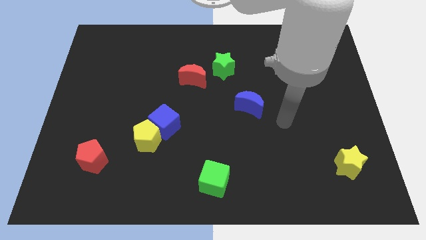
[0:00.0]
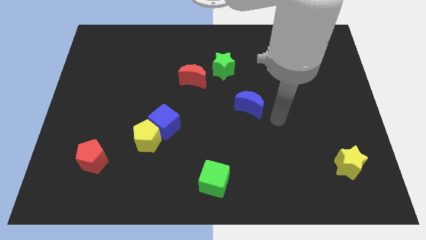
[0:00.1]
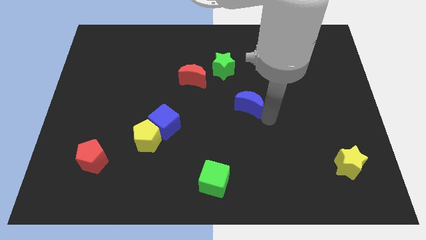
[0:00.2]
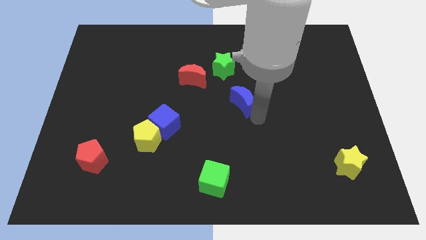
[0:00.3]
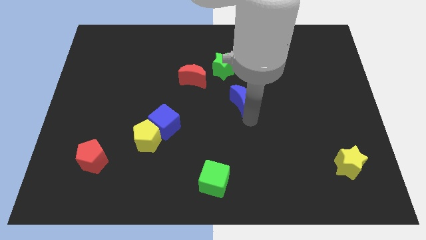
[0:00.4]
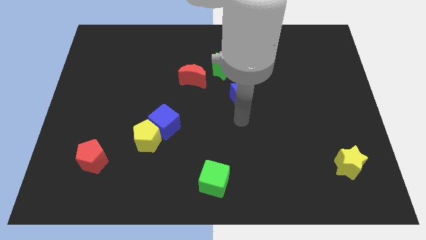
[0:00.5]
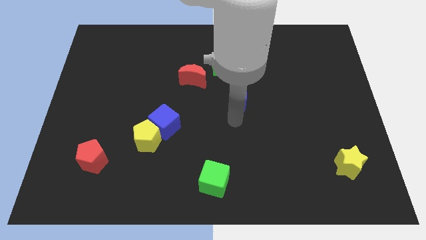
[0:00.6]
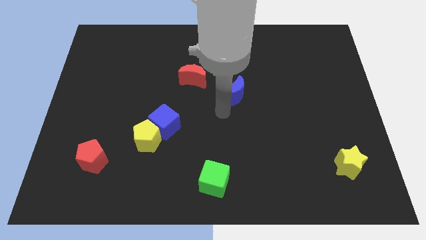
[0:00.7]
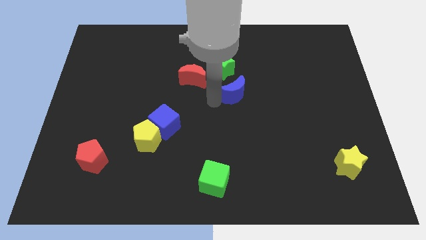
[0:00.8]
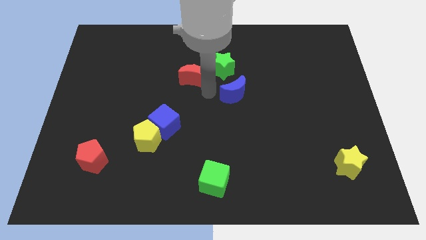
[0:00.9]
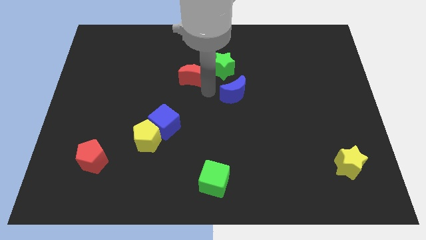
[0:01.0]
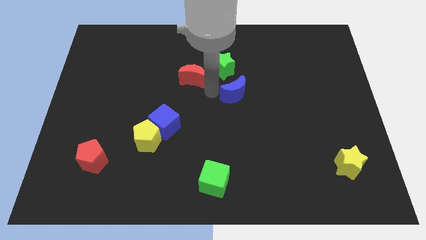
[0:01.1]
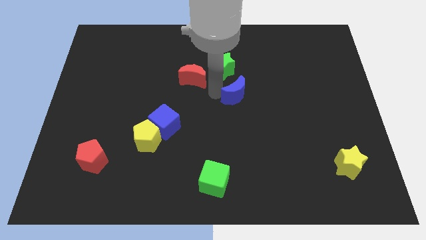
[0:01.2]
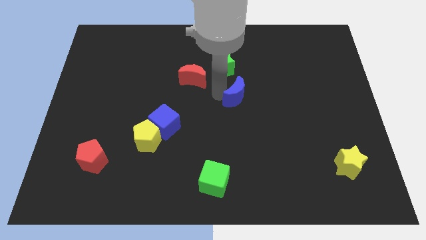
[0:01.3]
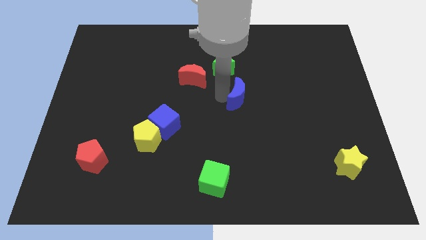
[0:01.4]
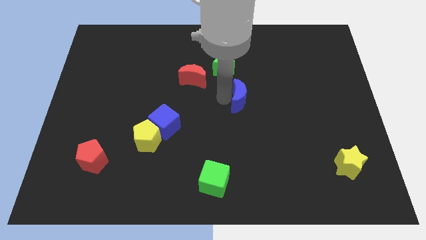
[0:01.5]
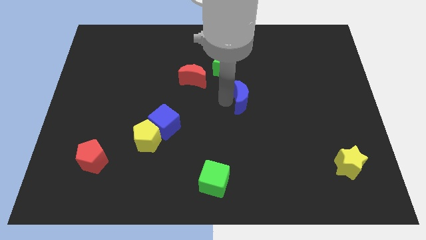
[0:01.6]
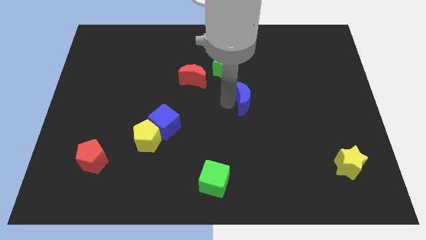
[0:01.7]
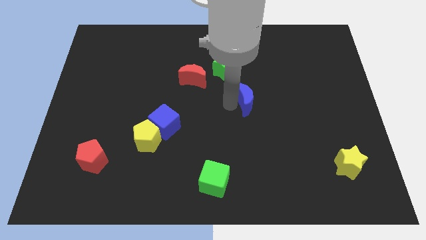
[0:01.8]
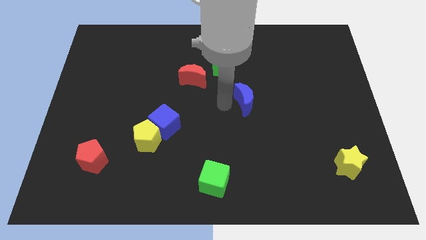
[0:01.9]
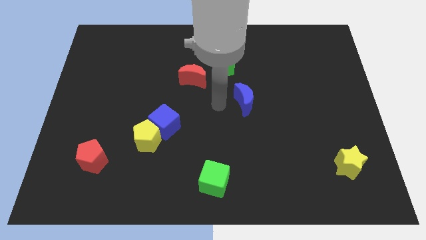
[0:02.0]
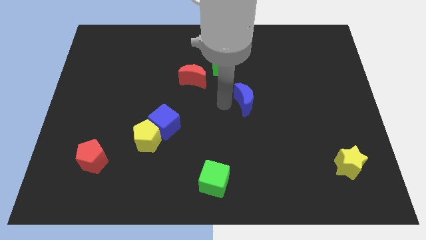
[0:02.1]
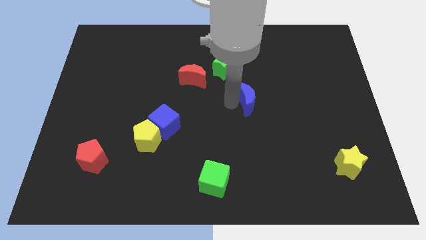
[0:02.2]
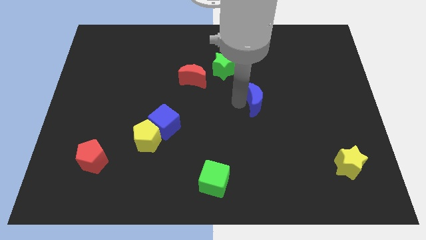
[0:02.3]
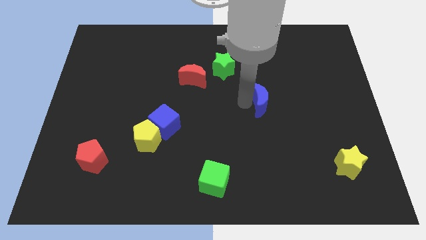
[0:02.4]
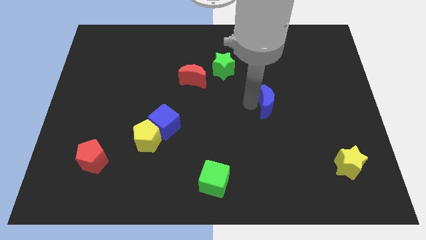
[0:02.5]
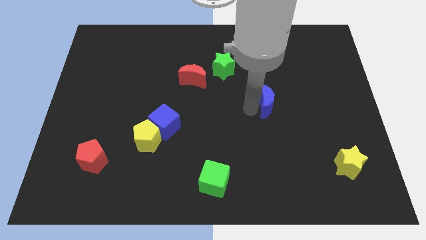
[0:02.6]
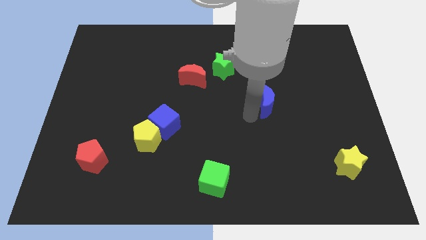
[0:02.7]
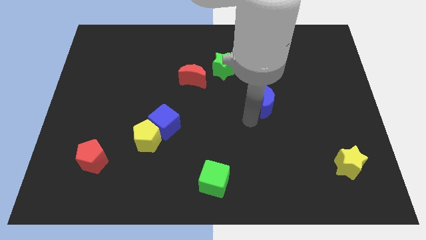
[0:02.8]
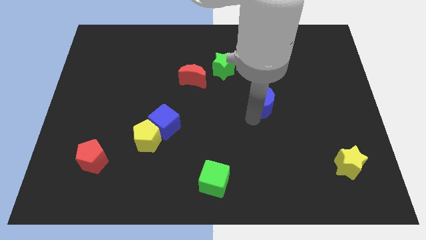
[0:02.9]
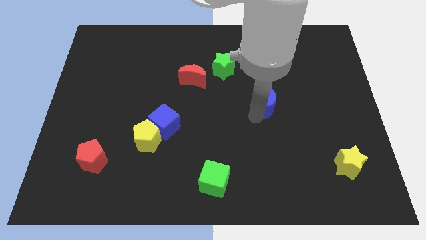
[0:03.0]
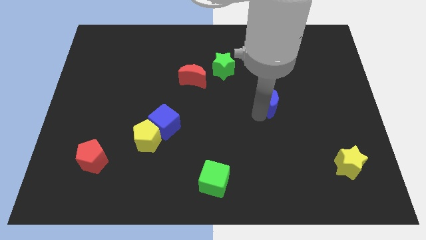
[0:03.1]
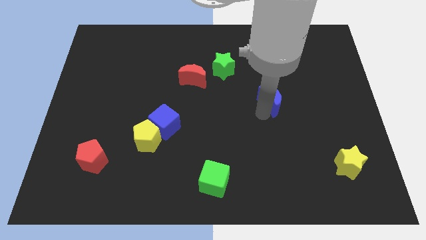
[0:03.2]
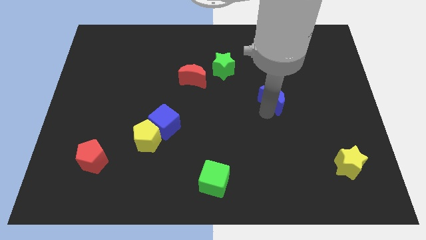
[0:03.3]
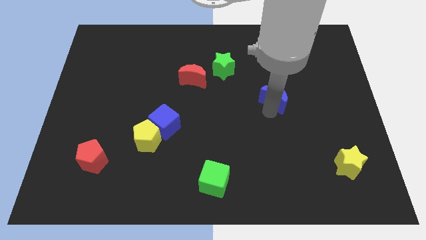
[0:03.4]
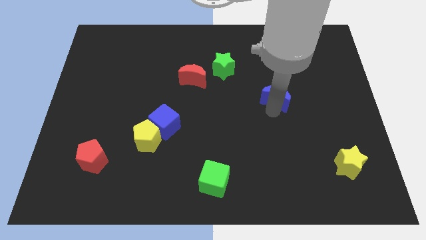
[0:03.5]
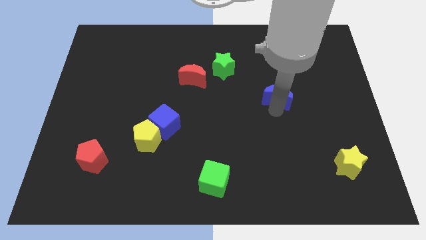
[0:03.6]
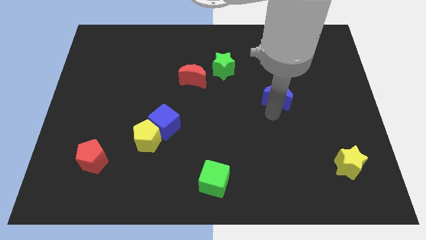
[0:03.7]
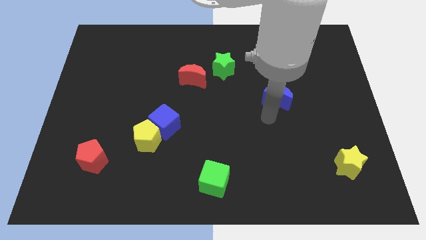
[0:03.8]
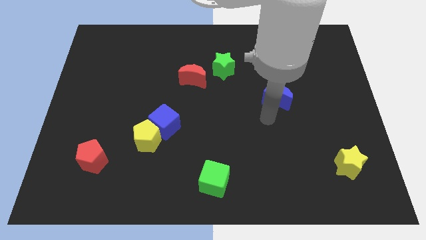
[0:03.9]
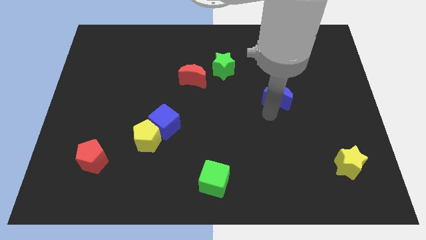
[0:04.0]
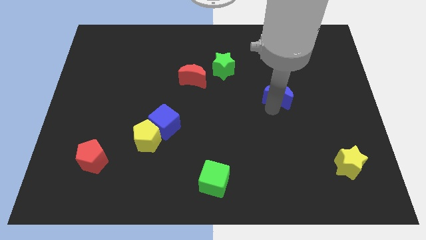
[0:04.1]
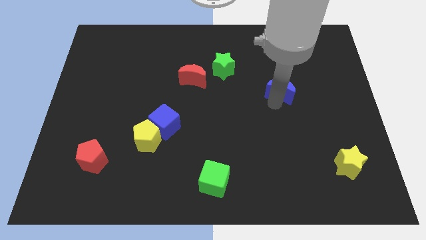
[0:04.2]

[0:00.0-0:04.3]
move the blue moon slightly up and right

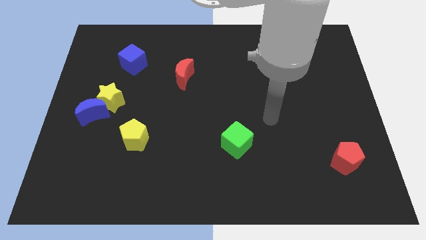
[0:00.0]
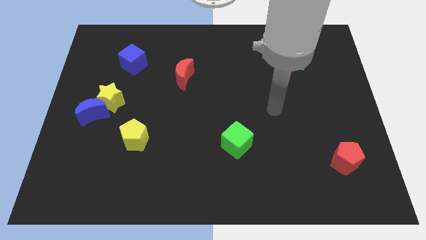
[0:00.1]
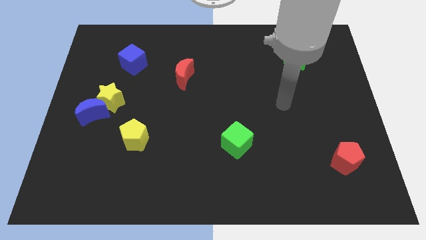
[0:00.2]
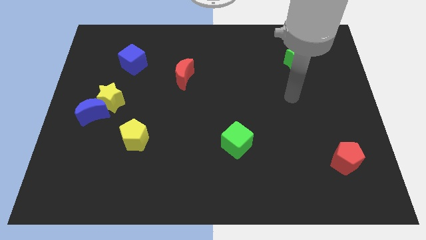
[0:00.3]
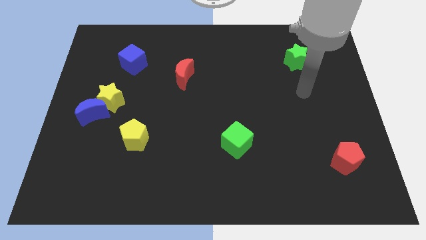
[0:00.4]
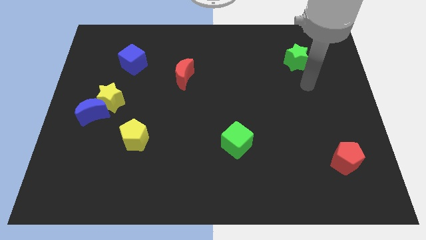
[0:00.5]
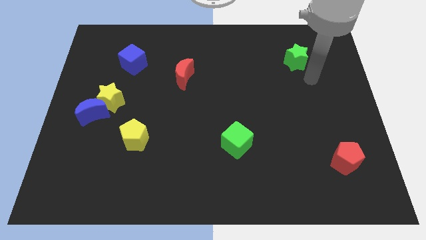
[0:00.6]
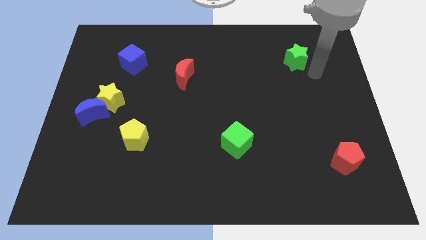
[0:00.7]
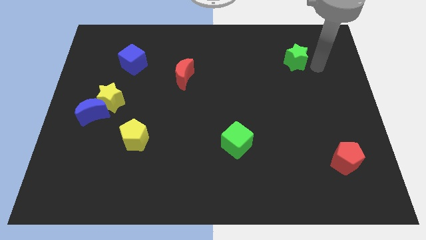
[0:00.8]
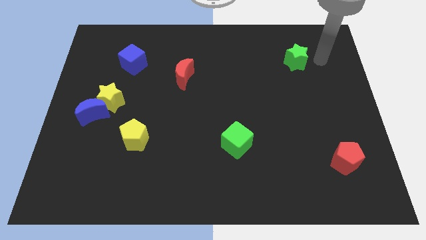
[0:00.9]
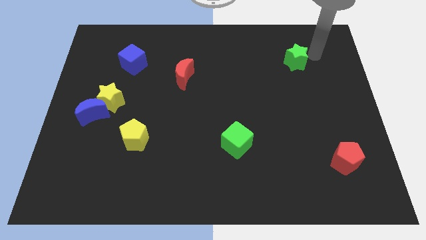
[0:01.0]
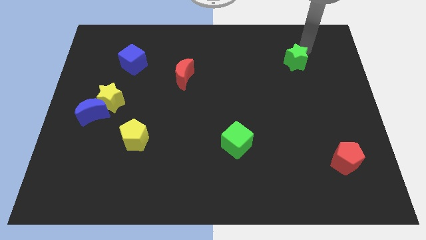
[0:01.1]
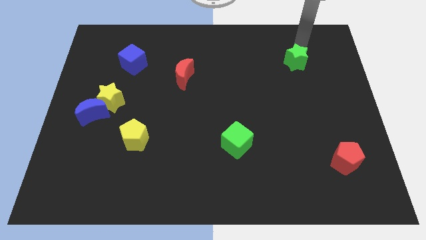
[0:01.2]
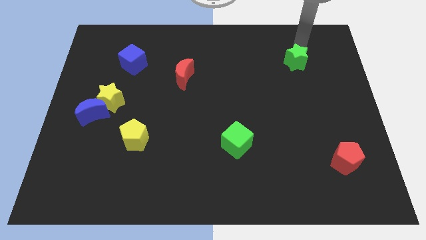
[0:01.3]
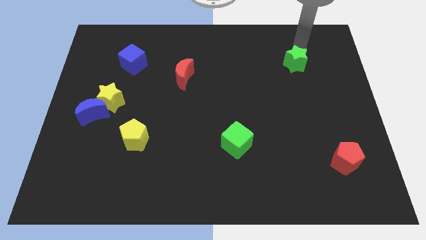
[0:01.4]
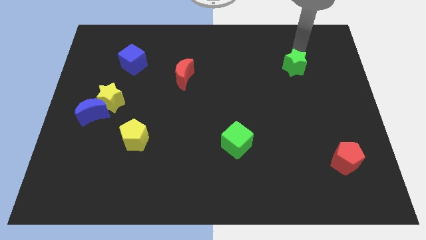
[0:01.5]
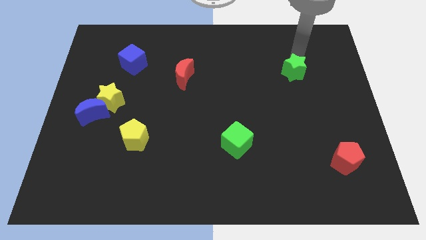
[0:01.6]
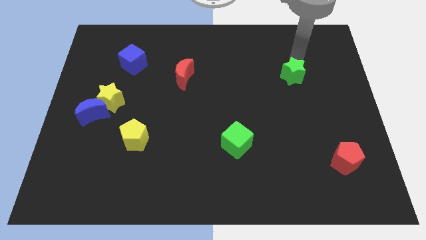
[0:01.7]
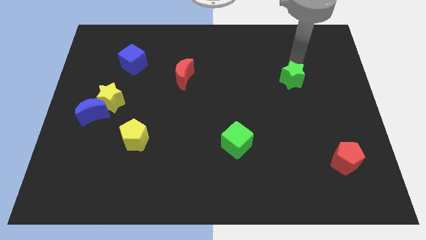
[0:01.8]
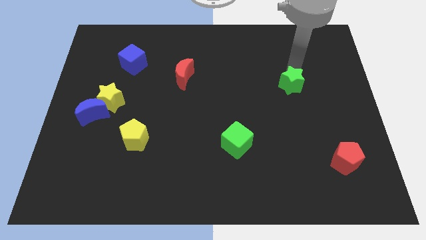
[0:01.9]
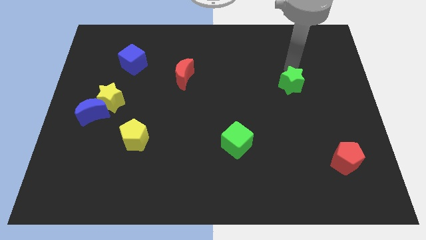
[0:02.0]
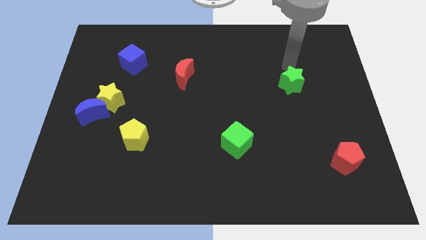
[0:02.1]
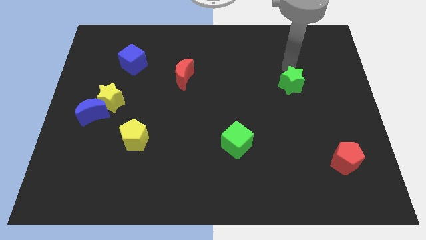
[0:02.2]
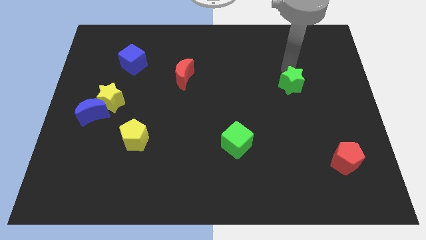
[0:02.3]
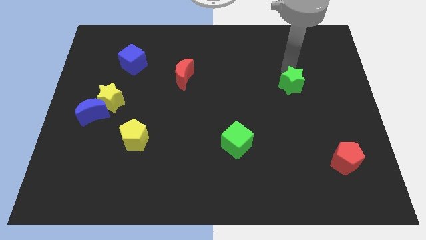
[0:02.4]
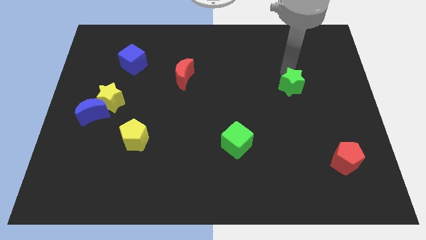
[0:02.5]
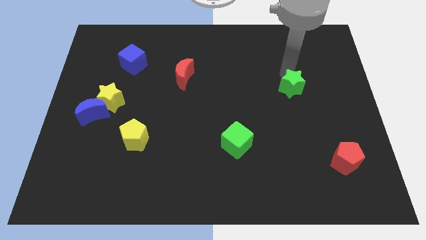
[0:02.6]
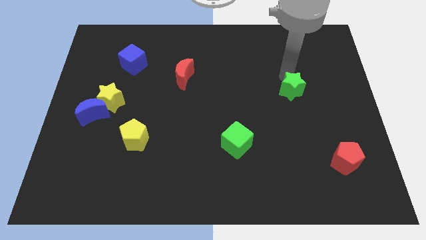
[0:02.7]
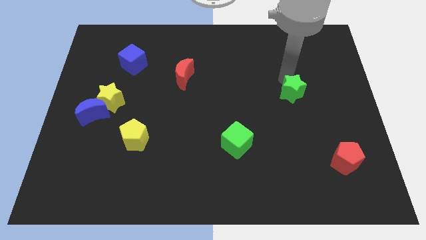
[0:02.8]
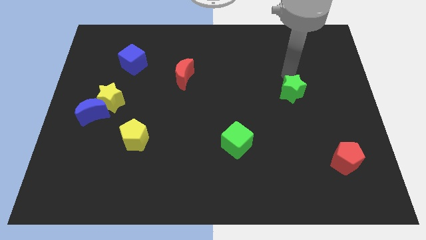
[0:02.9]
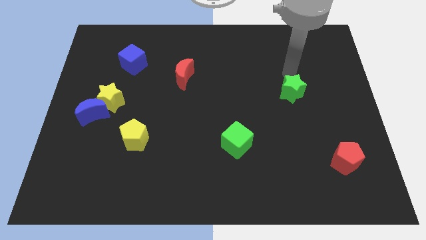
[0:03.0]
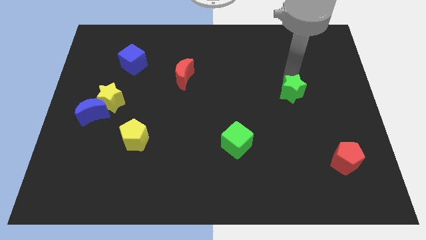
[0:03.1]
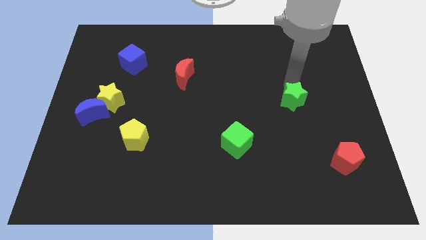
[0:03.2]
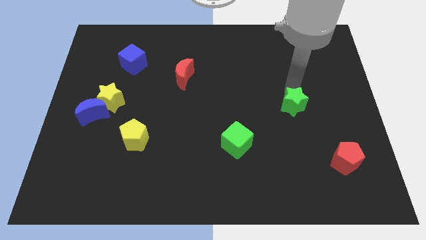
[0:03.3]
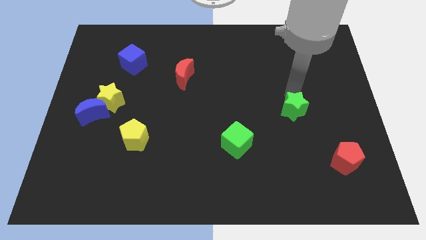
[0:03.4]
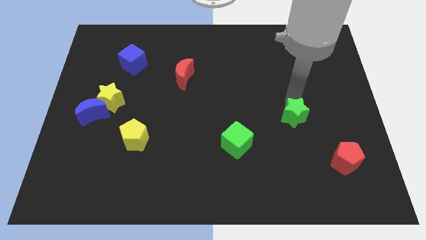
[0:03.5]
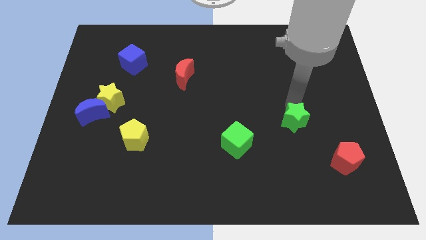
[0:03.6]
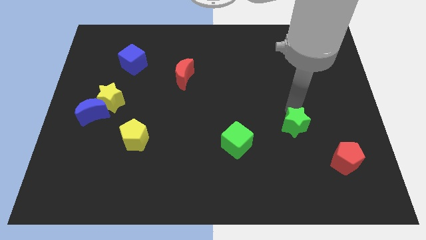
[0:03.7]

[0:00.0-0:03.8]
slide the green star downwards

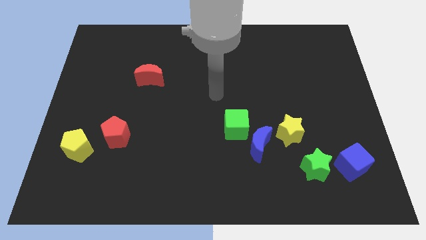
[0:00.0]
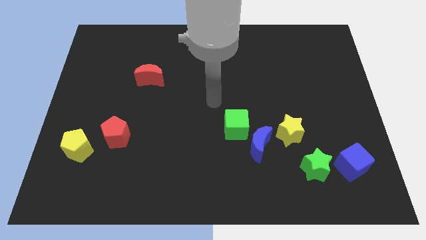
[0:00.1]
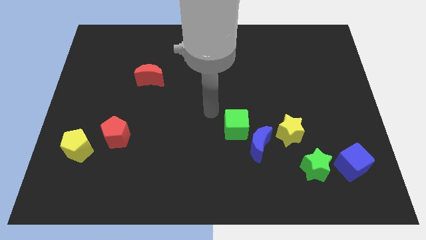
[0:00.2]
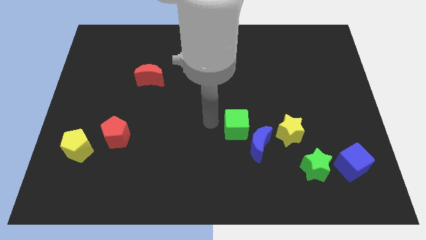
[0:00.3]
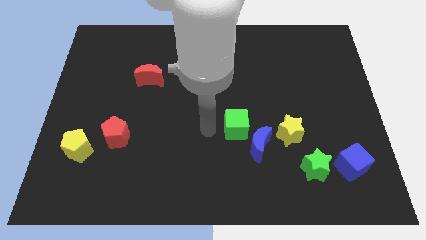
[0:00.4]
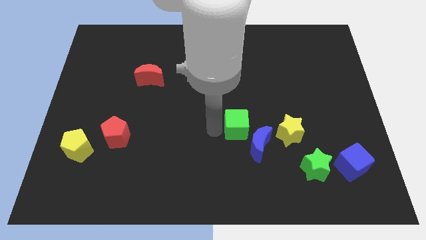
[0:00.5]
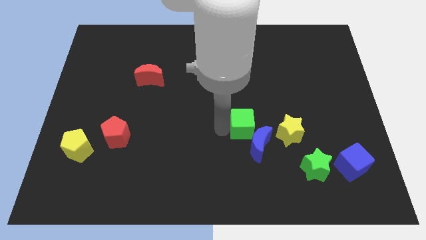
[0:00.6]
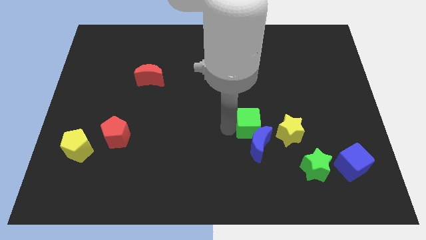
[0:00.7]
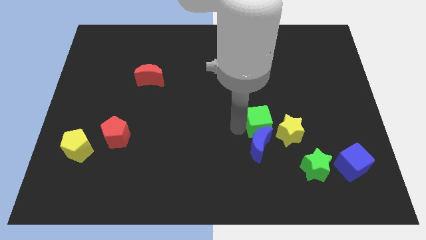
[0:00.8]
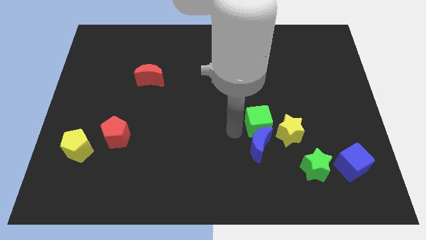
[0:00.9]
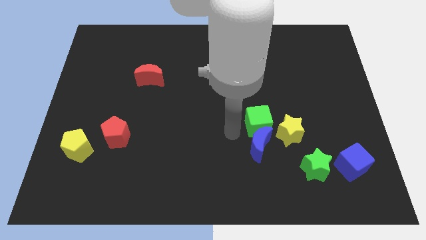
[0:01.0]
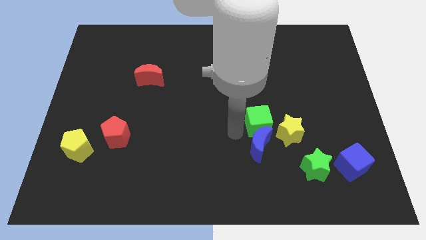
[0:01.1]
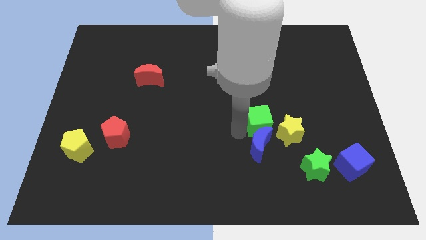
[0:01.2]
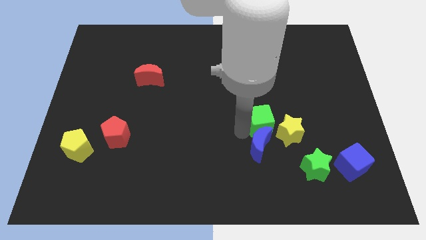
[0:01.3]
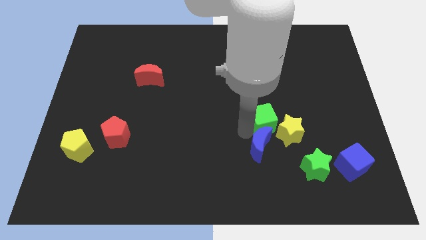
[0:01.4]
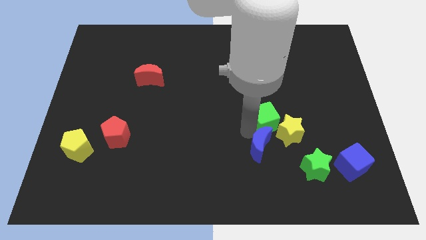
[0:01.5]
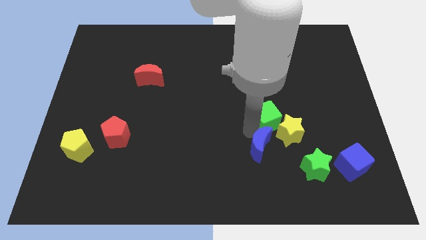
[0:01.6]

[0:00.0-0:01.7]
move the green cube right a bit
